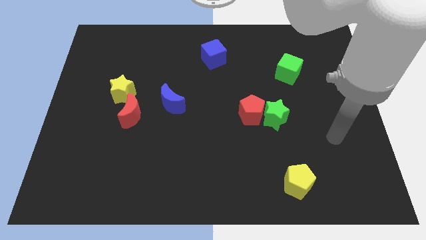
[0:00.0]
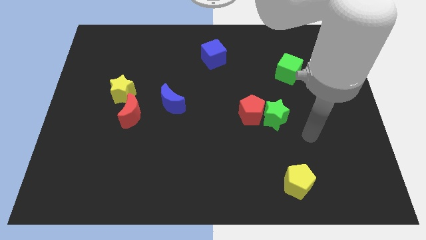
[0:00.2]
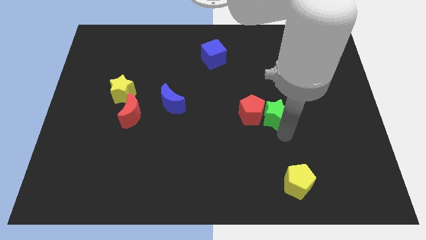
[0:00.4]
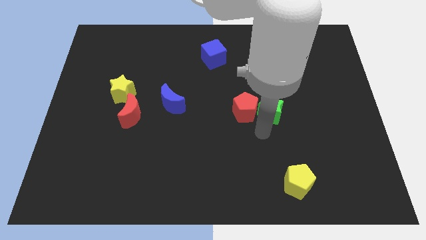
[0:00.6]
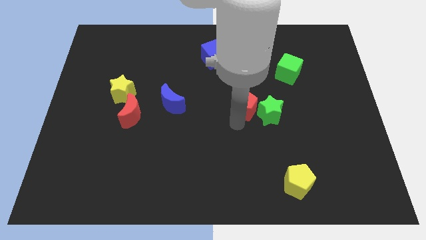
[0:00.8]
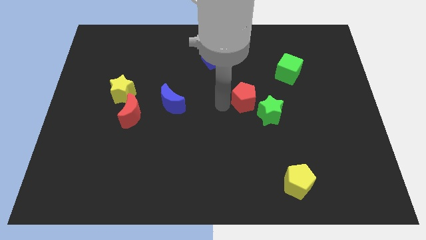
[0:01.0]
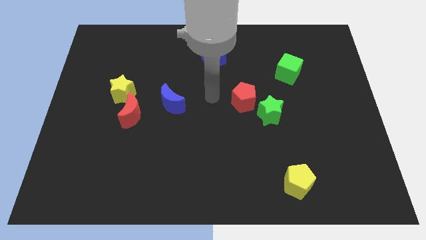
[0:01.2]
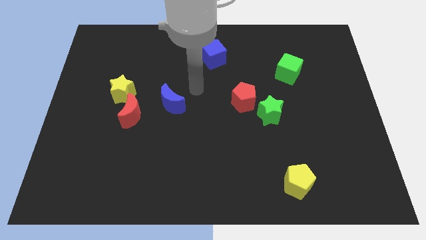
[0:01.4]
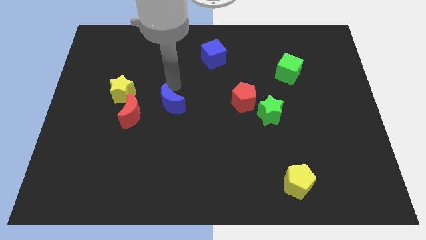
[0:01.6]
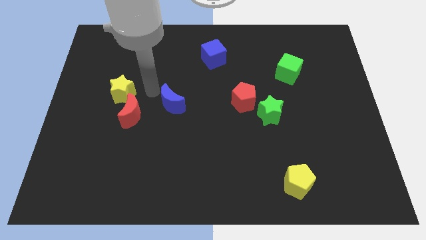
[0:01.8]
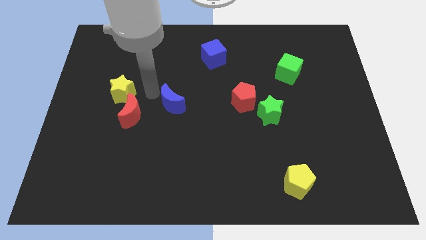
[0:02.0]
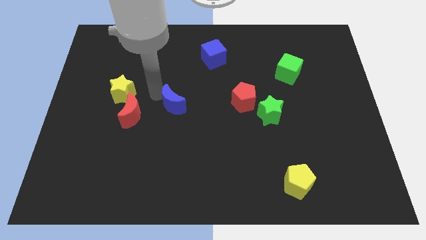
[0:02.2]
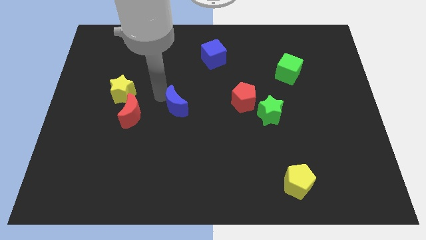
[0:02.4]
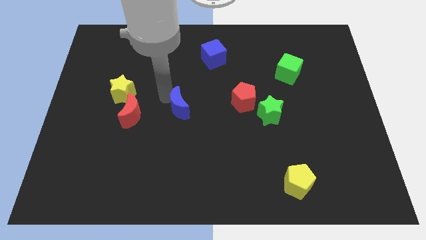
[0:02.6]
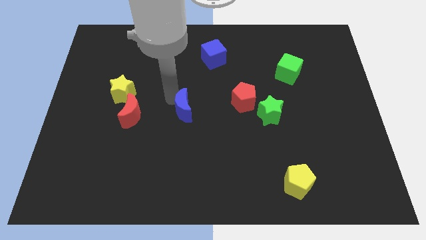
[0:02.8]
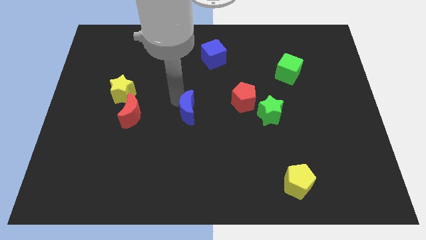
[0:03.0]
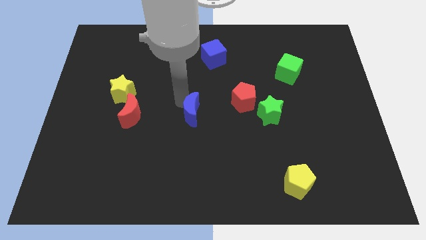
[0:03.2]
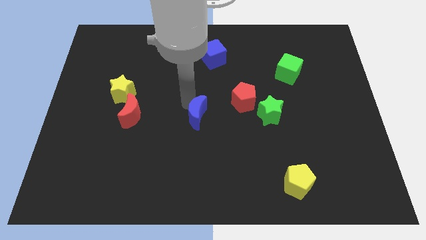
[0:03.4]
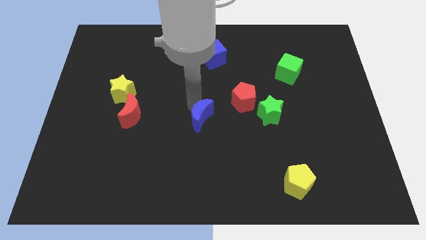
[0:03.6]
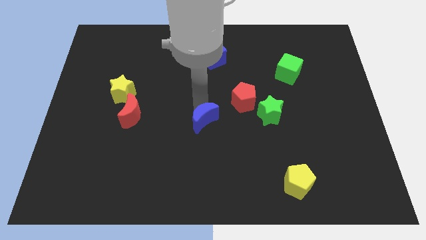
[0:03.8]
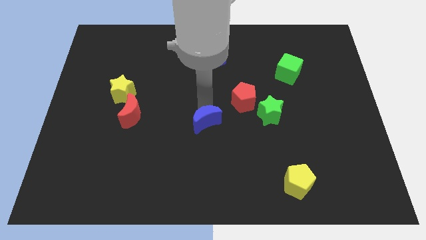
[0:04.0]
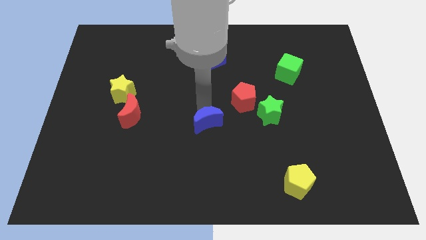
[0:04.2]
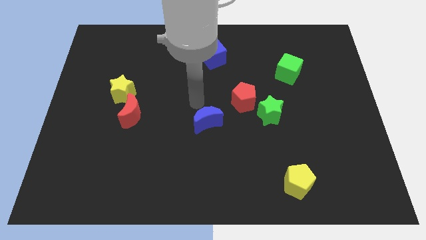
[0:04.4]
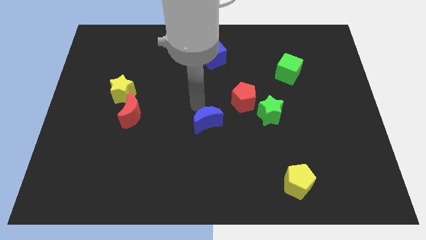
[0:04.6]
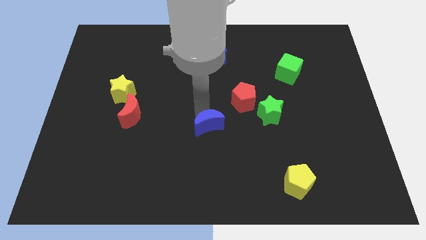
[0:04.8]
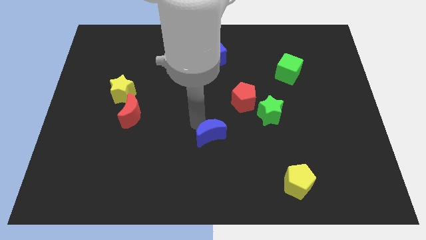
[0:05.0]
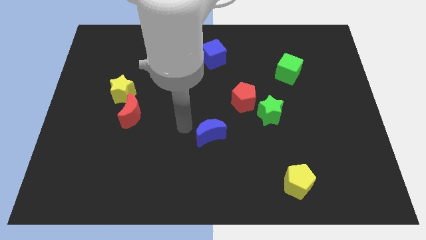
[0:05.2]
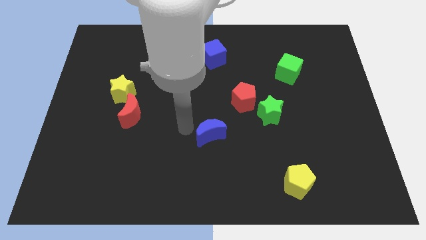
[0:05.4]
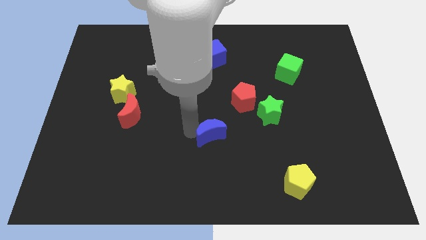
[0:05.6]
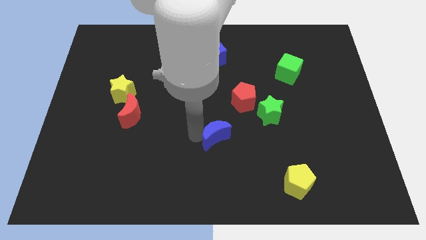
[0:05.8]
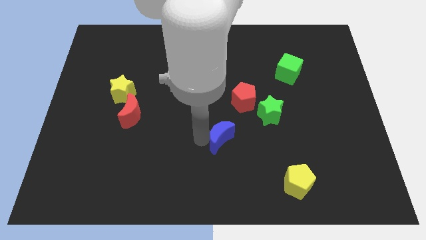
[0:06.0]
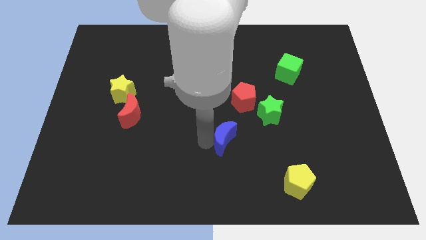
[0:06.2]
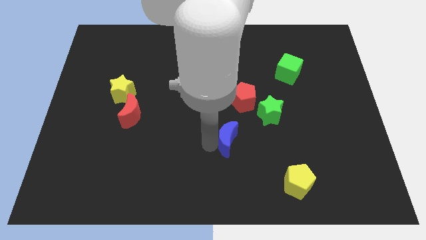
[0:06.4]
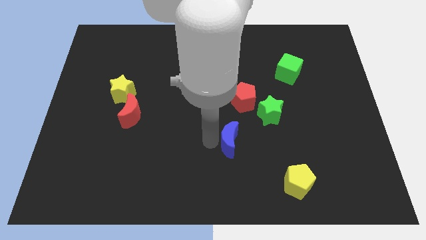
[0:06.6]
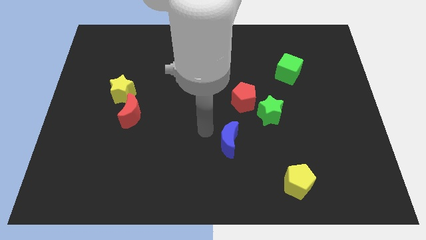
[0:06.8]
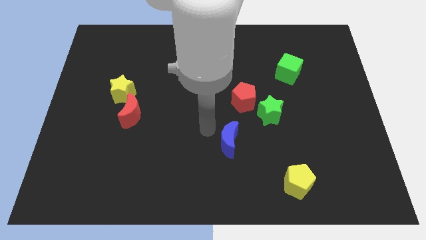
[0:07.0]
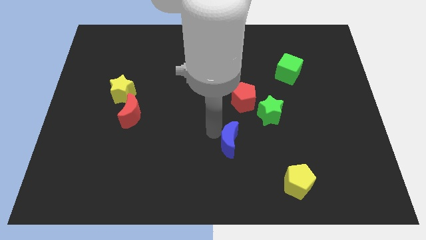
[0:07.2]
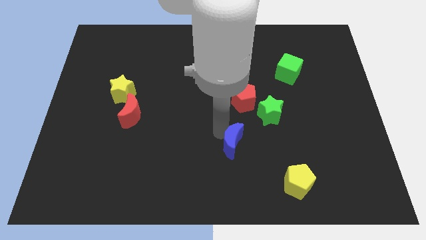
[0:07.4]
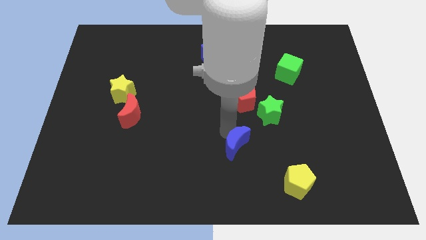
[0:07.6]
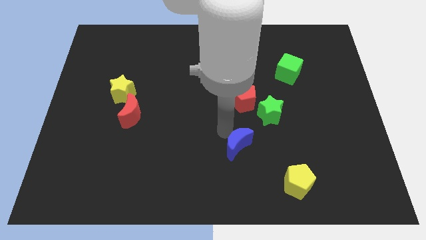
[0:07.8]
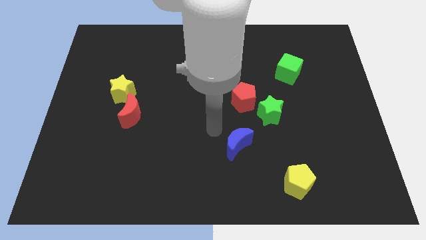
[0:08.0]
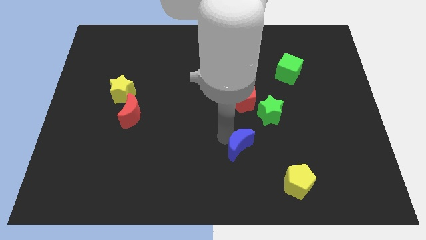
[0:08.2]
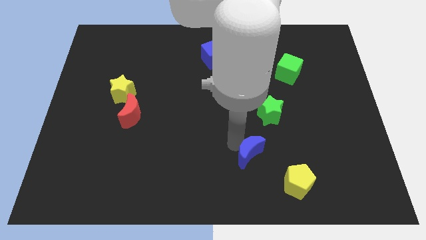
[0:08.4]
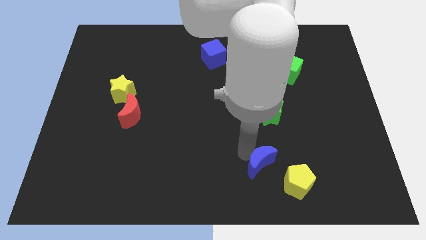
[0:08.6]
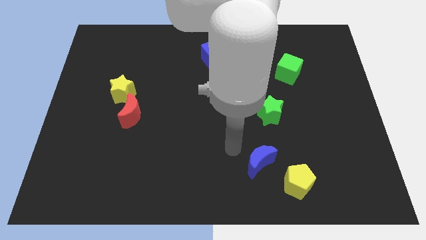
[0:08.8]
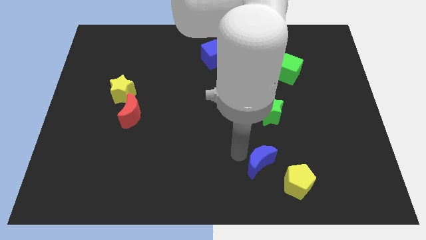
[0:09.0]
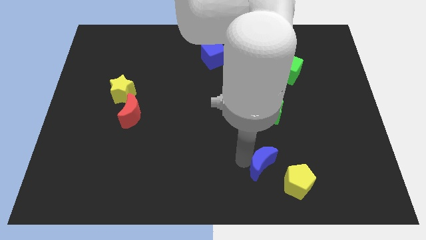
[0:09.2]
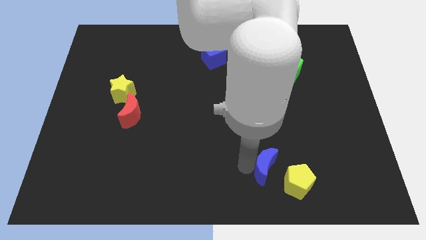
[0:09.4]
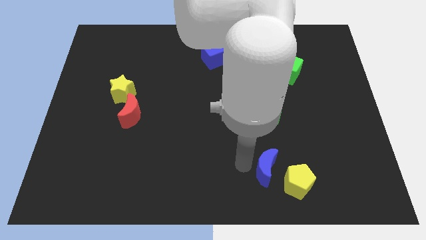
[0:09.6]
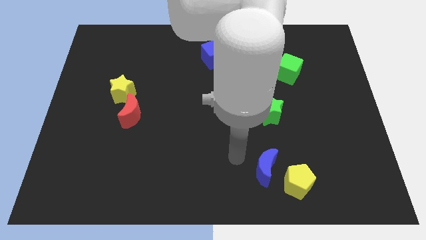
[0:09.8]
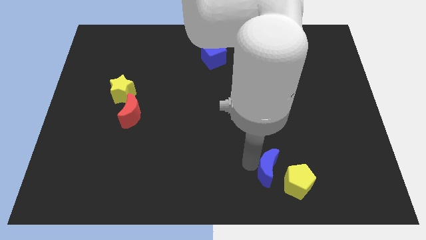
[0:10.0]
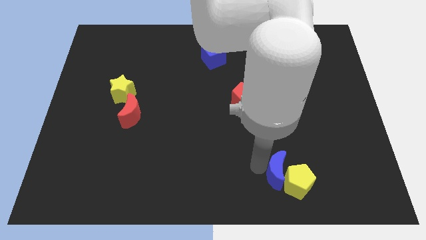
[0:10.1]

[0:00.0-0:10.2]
put the blue moon towards the yellow pentagon

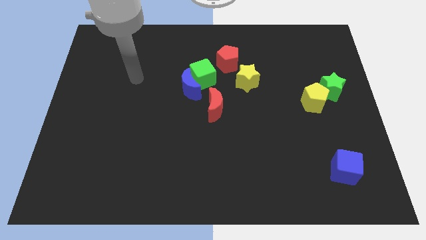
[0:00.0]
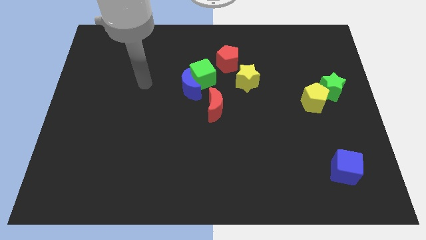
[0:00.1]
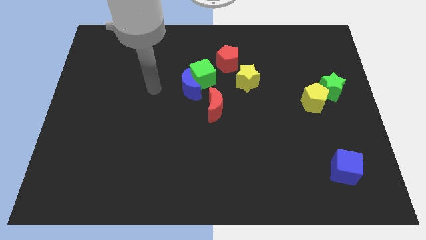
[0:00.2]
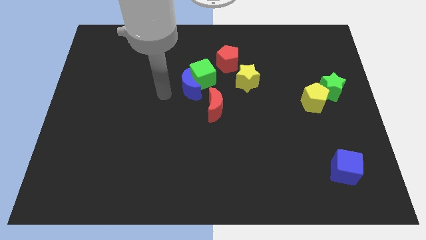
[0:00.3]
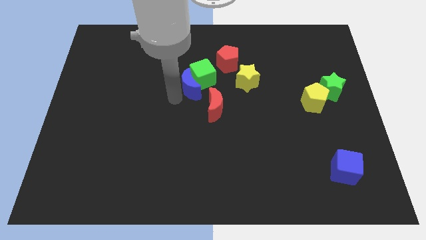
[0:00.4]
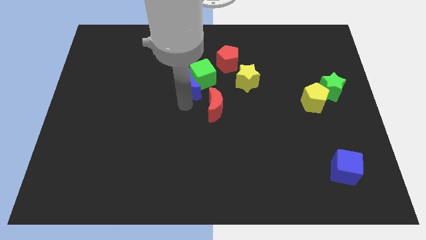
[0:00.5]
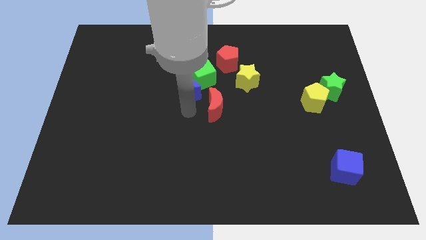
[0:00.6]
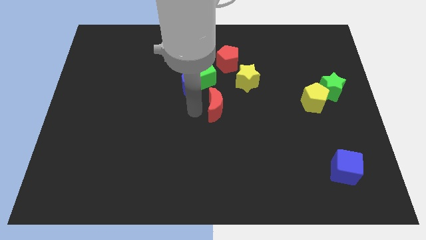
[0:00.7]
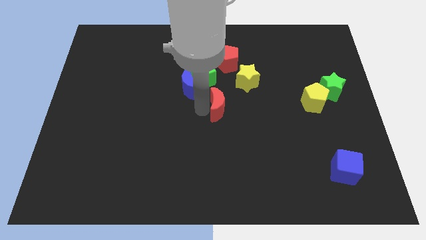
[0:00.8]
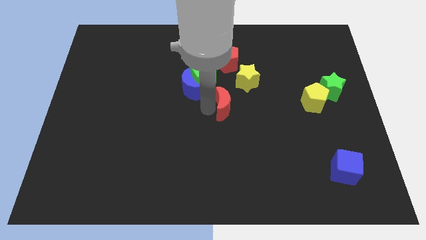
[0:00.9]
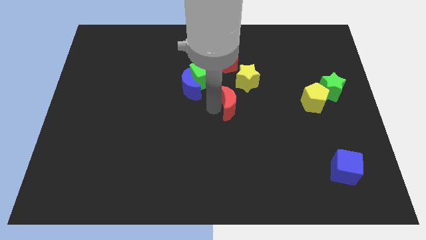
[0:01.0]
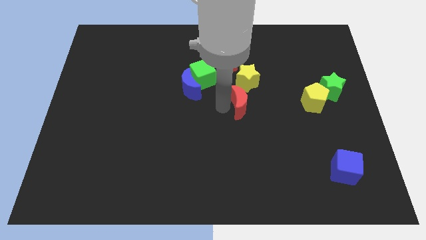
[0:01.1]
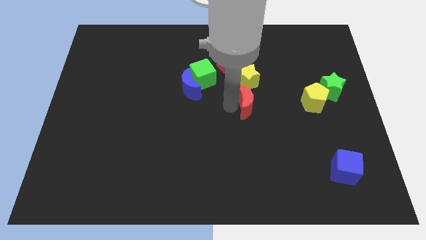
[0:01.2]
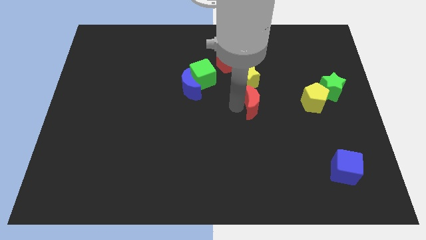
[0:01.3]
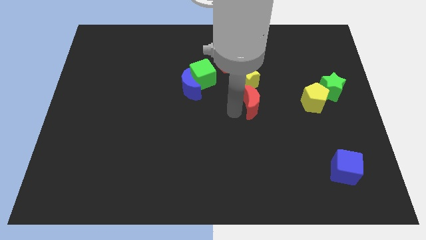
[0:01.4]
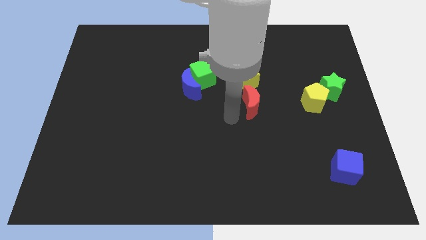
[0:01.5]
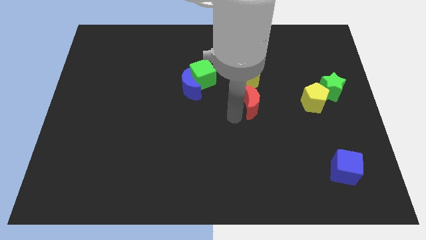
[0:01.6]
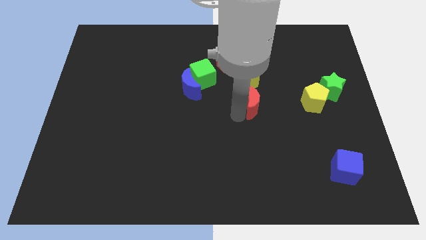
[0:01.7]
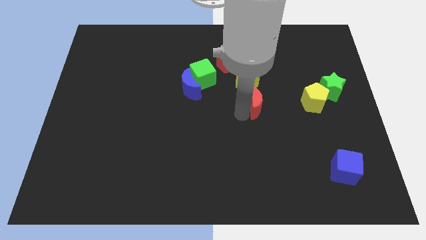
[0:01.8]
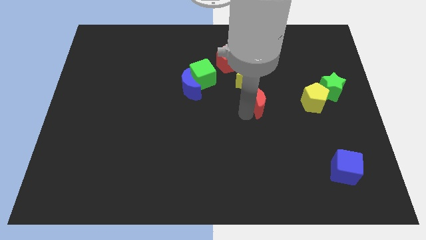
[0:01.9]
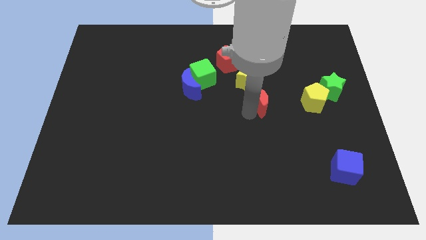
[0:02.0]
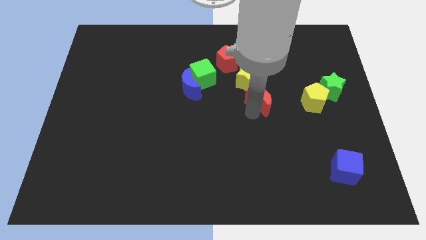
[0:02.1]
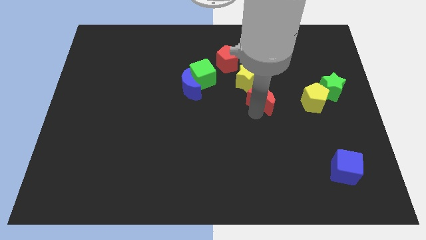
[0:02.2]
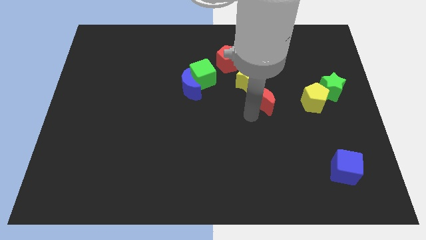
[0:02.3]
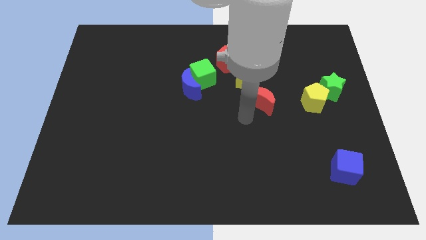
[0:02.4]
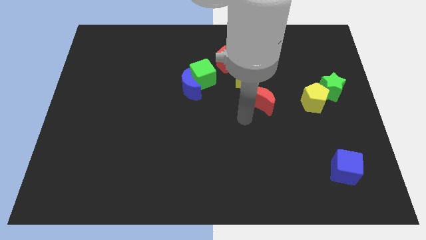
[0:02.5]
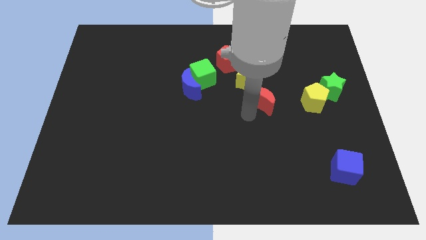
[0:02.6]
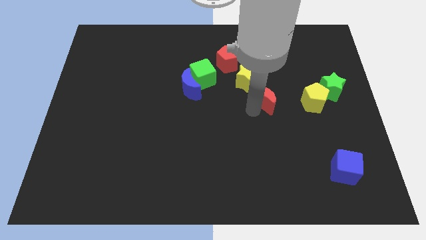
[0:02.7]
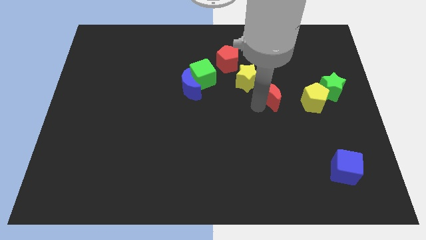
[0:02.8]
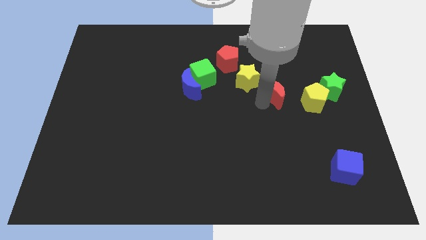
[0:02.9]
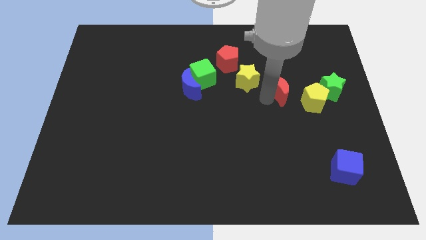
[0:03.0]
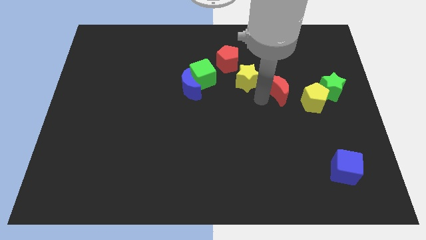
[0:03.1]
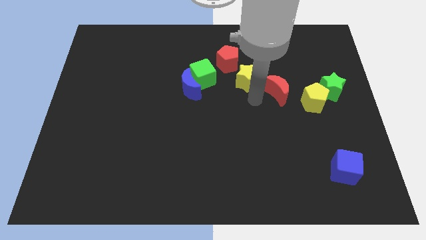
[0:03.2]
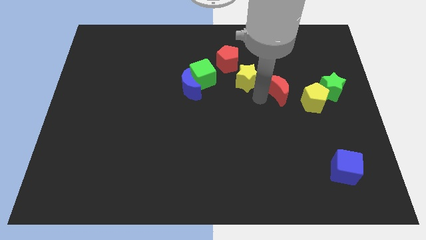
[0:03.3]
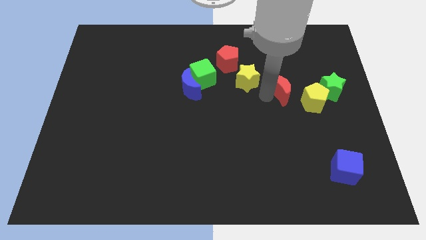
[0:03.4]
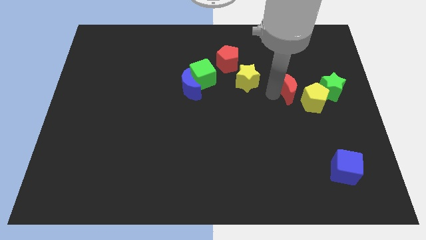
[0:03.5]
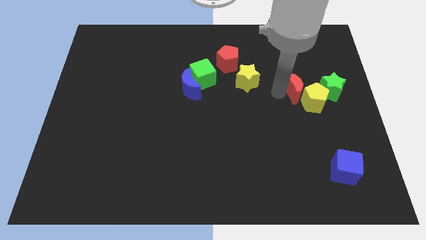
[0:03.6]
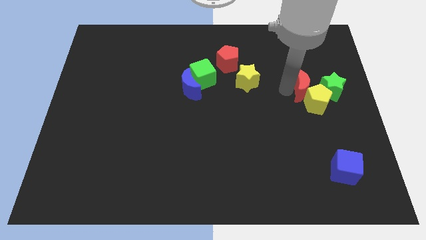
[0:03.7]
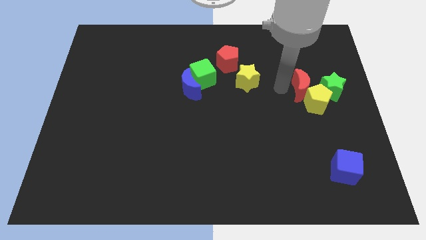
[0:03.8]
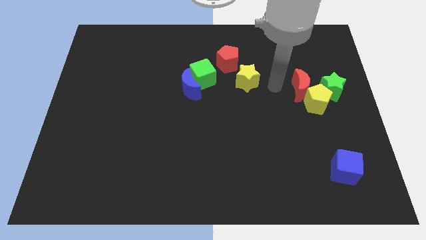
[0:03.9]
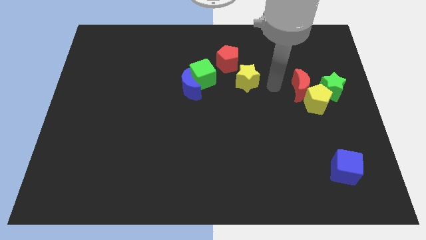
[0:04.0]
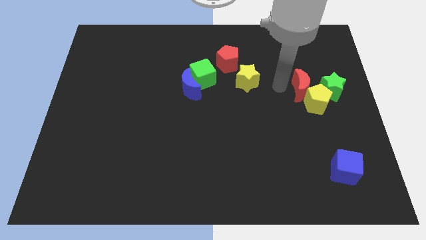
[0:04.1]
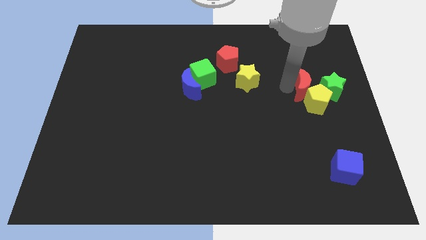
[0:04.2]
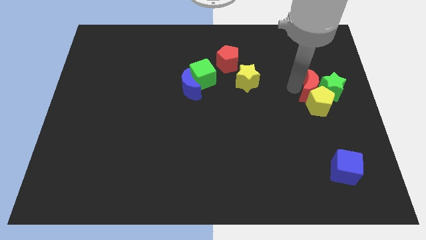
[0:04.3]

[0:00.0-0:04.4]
push the red moon to the green star
